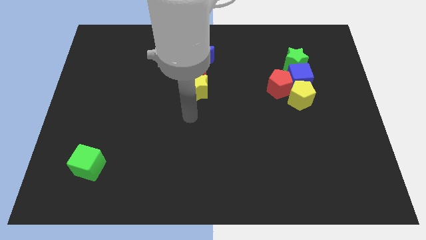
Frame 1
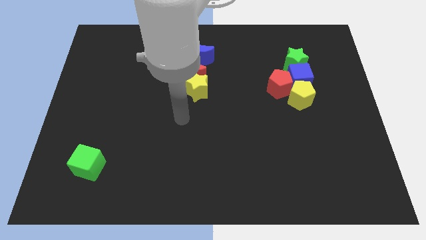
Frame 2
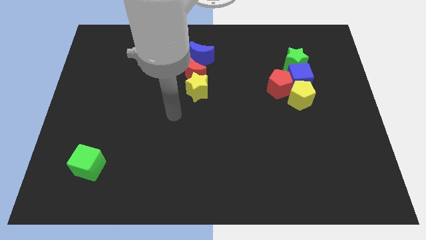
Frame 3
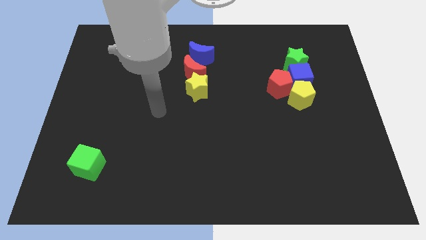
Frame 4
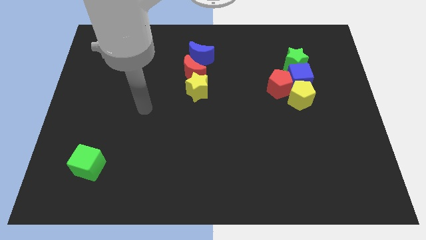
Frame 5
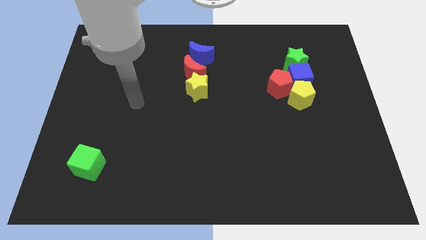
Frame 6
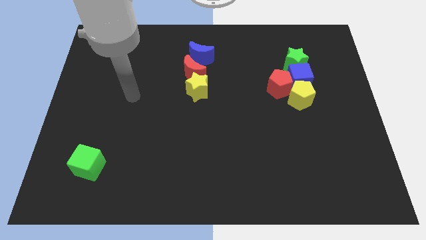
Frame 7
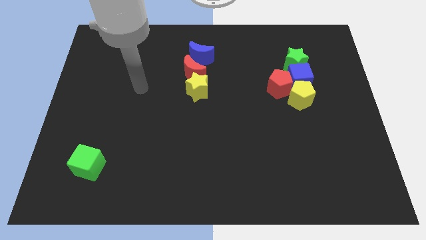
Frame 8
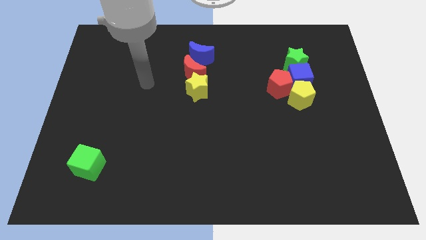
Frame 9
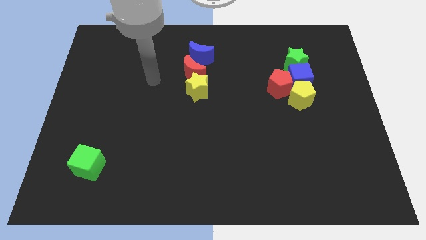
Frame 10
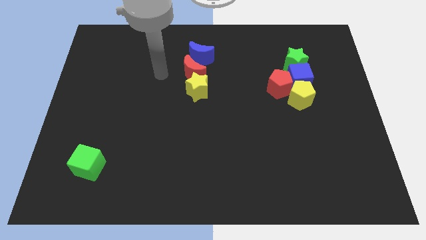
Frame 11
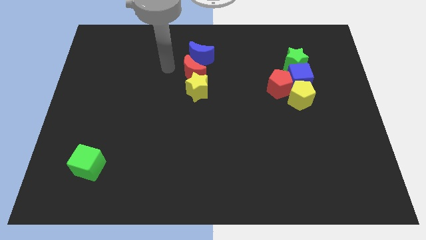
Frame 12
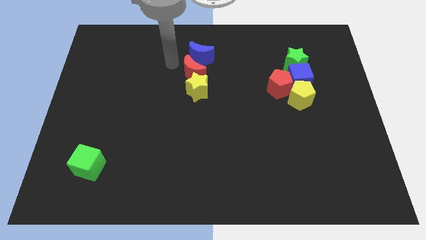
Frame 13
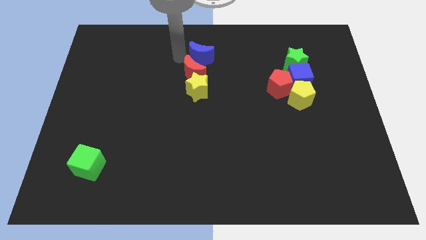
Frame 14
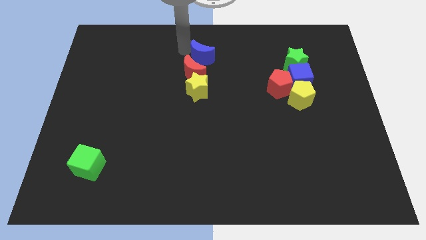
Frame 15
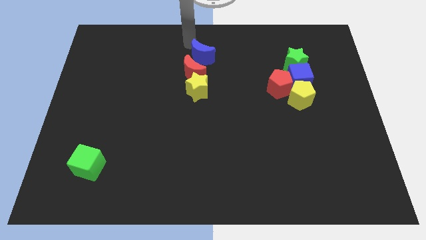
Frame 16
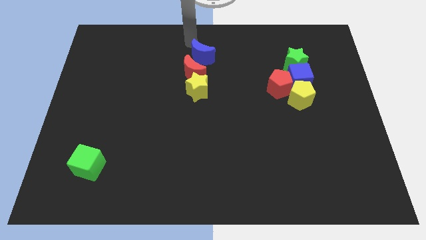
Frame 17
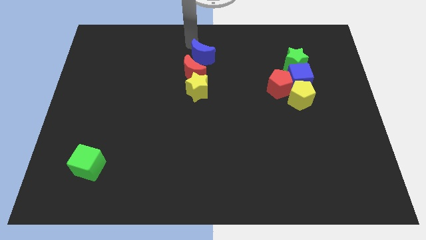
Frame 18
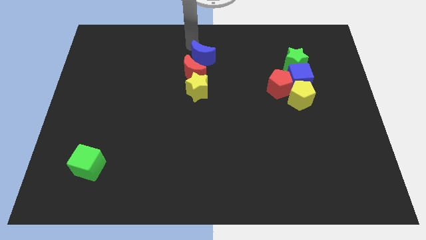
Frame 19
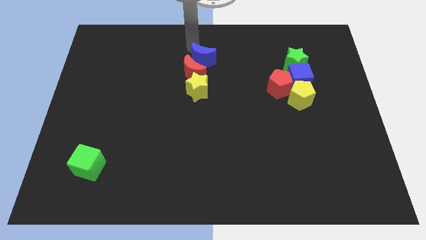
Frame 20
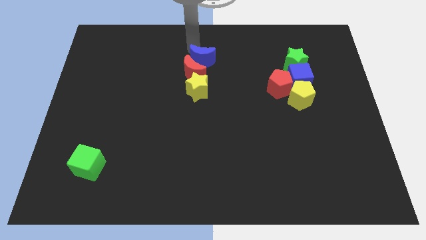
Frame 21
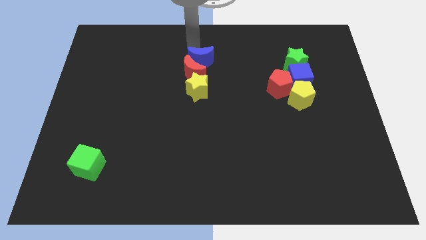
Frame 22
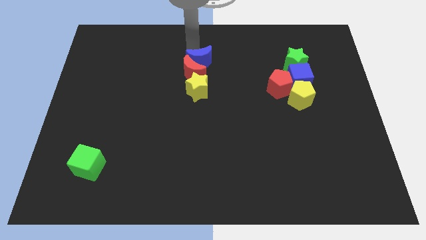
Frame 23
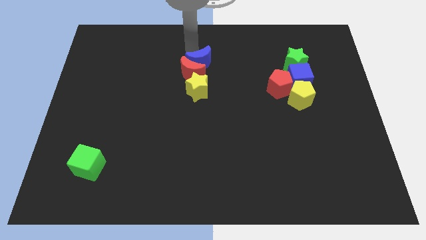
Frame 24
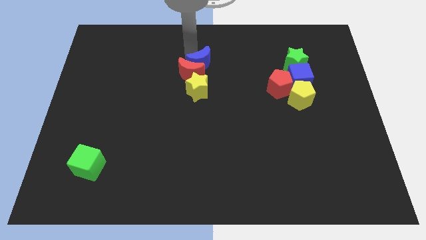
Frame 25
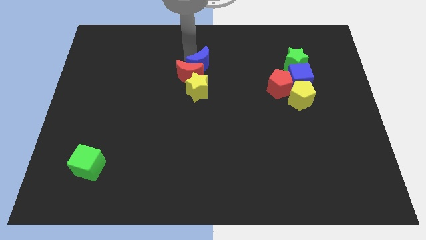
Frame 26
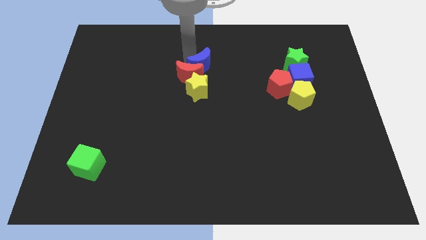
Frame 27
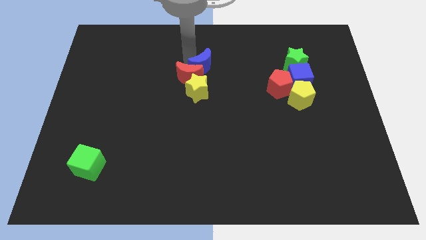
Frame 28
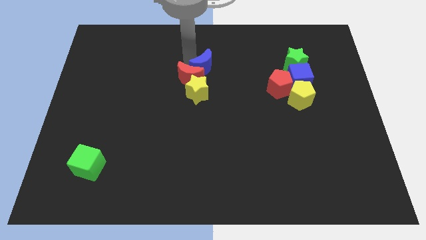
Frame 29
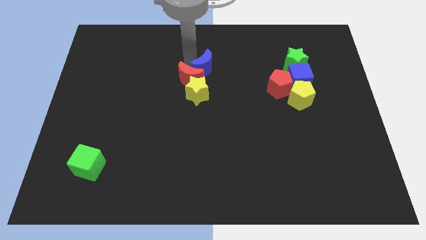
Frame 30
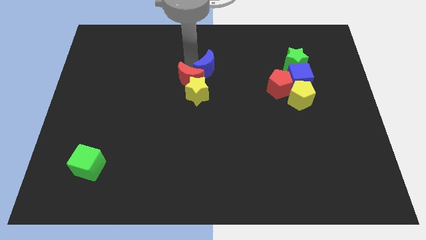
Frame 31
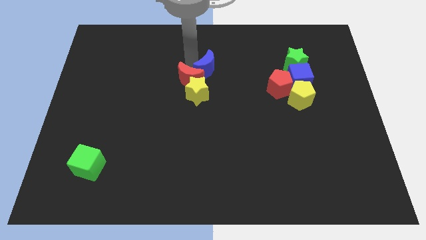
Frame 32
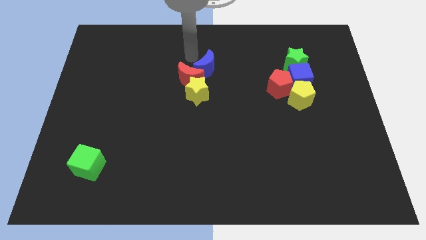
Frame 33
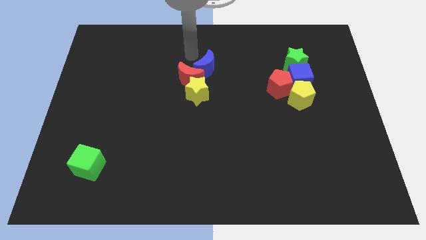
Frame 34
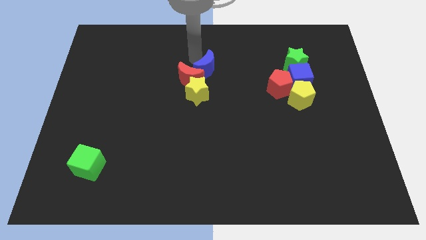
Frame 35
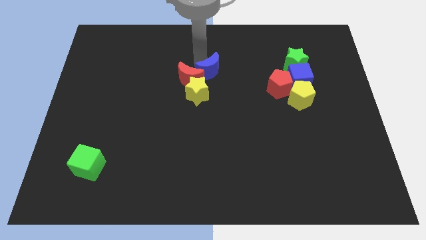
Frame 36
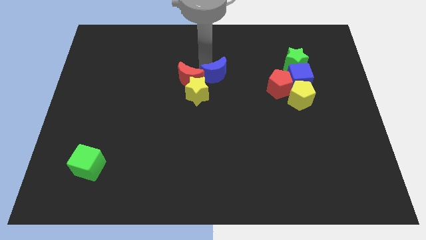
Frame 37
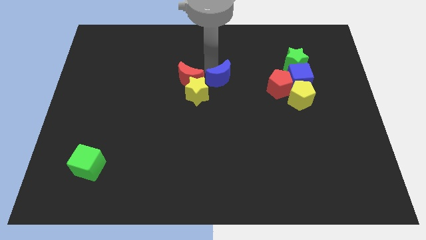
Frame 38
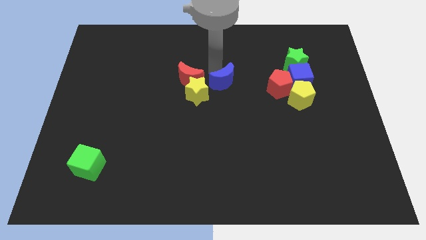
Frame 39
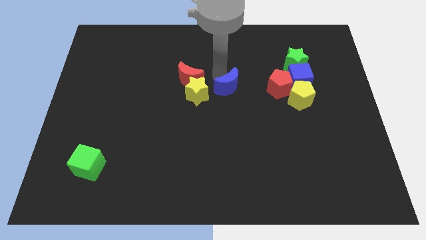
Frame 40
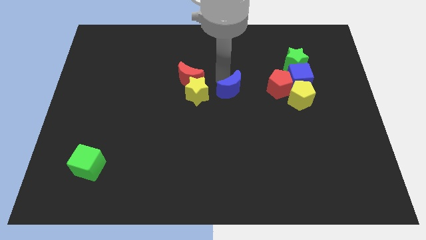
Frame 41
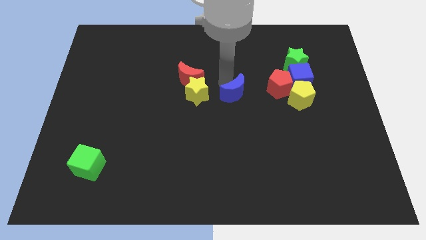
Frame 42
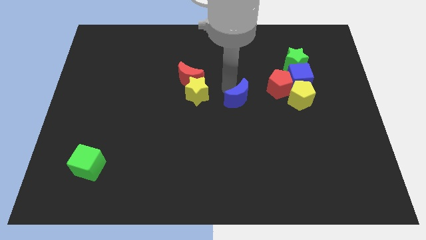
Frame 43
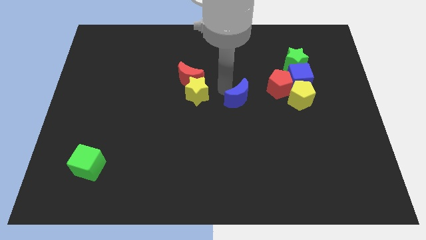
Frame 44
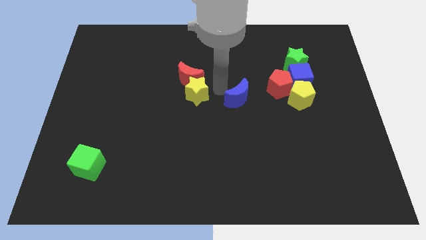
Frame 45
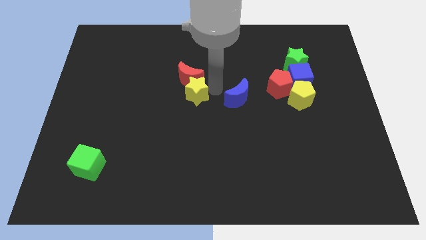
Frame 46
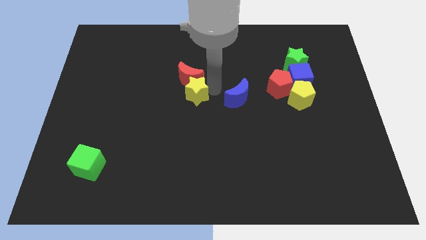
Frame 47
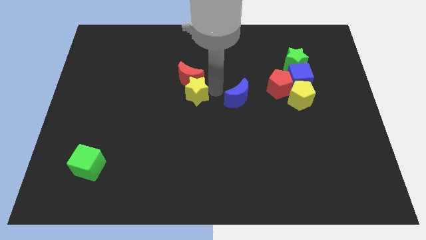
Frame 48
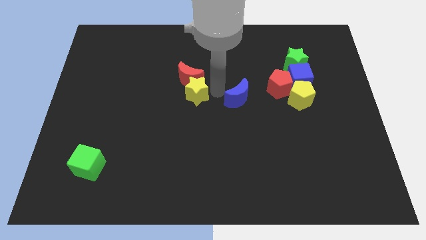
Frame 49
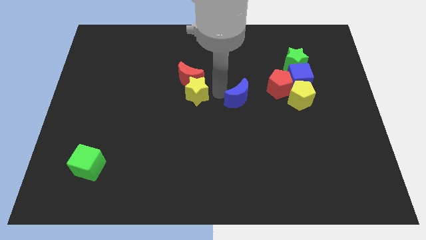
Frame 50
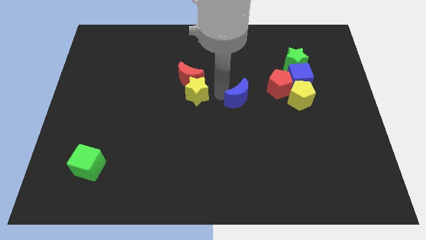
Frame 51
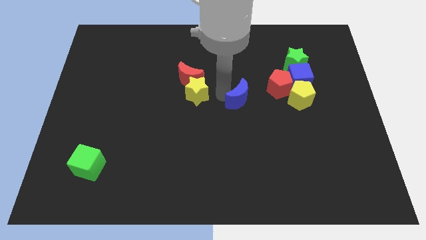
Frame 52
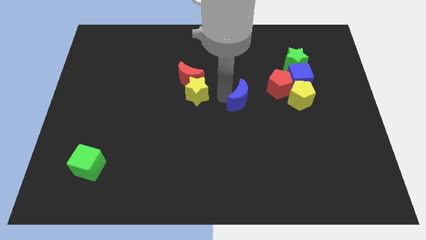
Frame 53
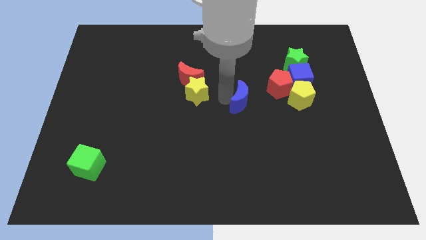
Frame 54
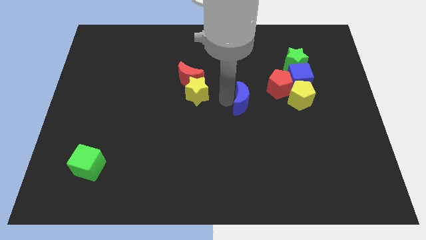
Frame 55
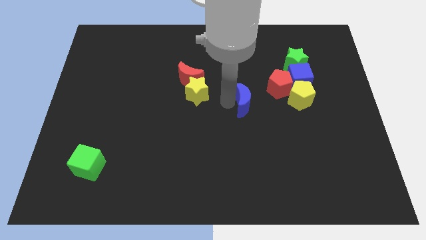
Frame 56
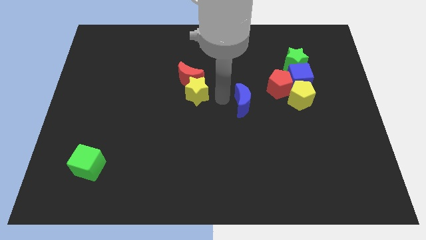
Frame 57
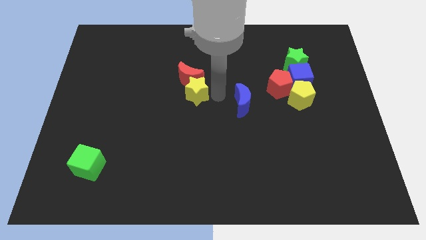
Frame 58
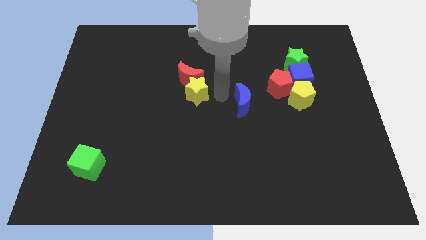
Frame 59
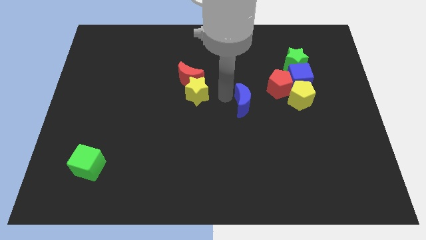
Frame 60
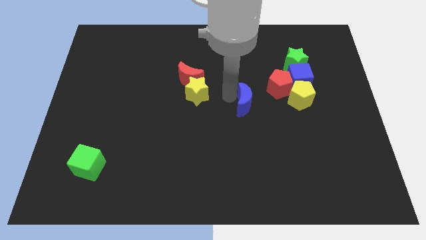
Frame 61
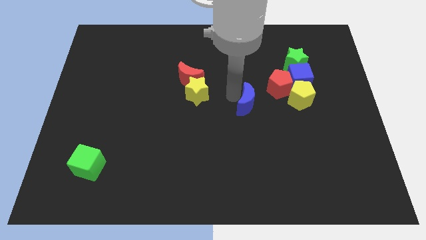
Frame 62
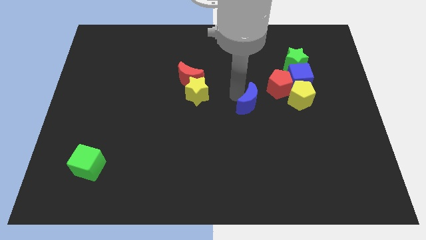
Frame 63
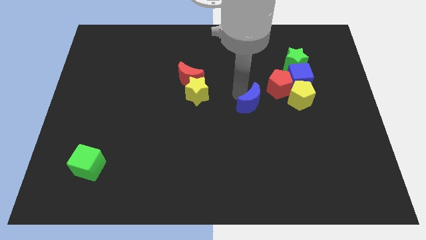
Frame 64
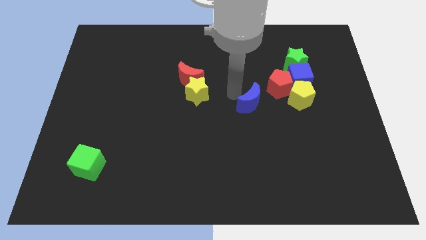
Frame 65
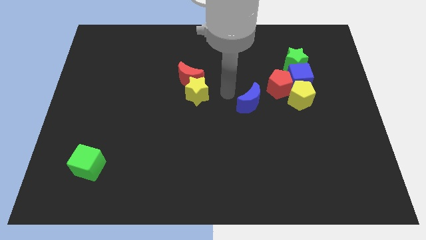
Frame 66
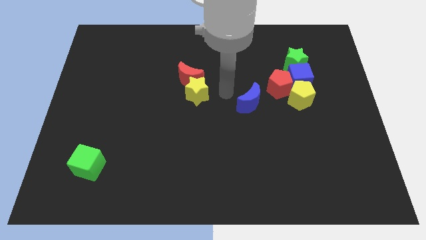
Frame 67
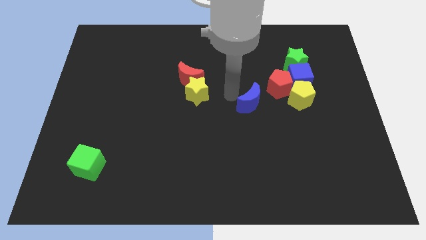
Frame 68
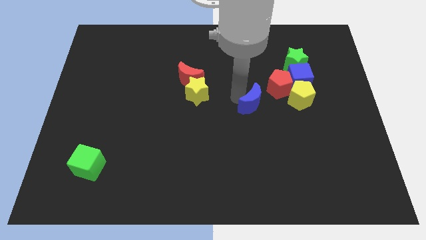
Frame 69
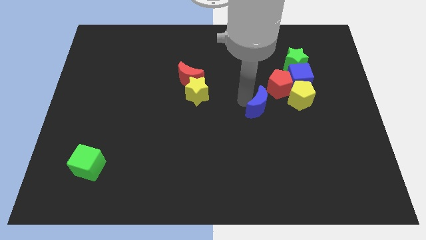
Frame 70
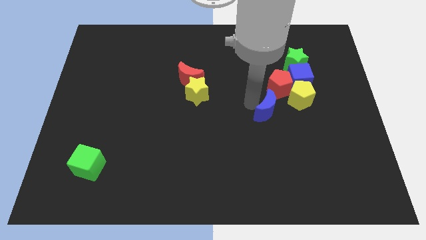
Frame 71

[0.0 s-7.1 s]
slide the blue moon to the bottom left side of the yellow pentagon

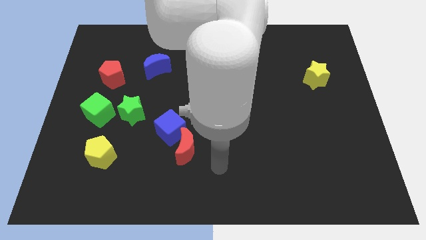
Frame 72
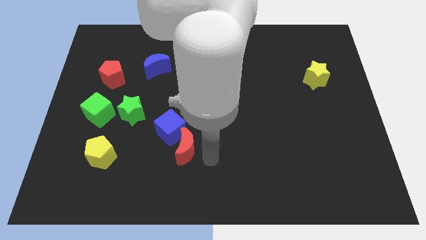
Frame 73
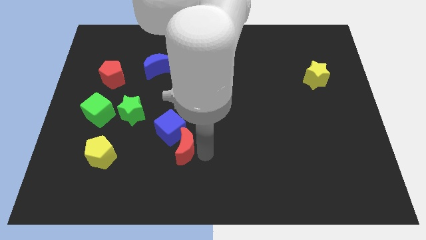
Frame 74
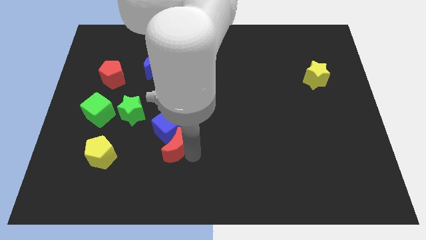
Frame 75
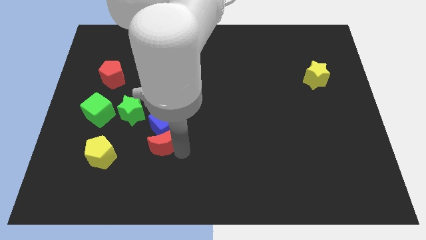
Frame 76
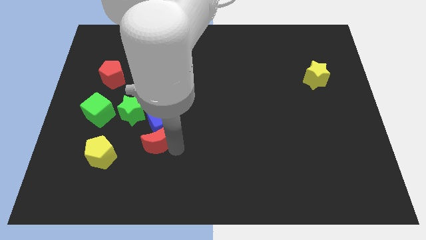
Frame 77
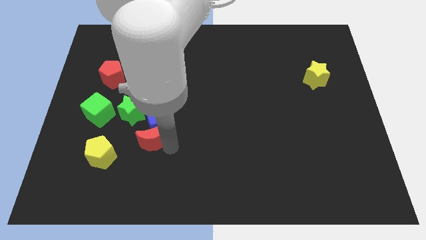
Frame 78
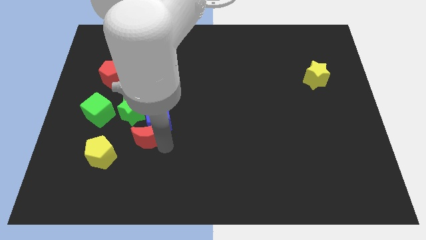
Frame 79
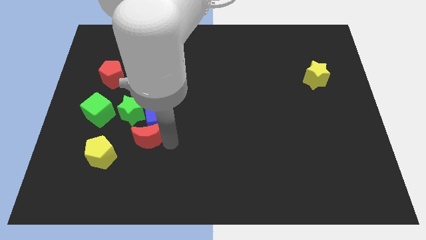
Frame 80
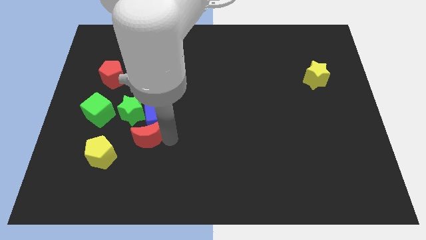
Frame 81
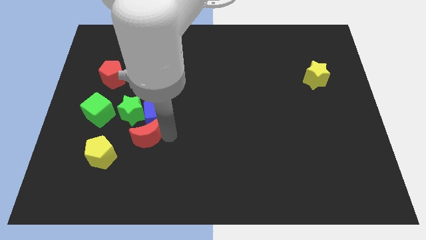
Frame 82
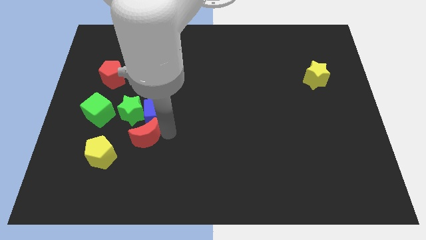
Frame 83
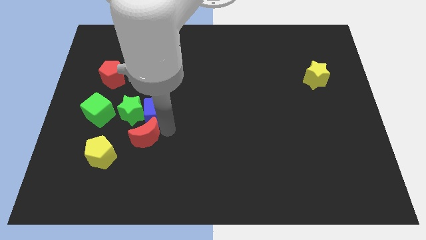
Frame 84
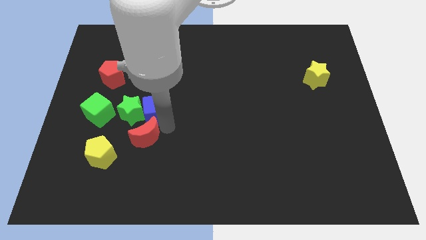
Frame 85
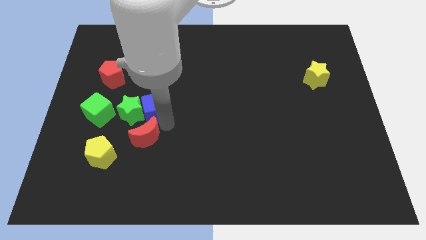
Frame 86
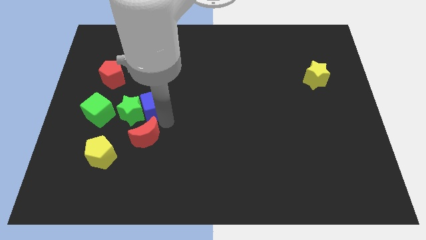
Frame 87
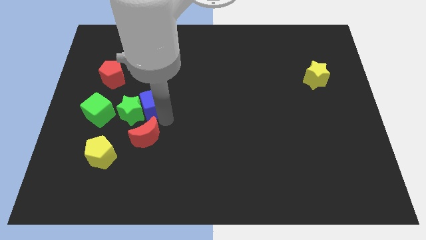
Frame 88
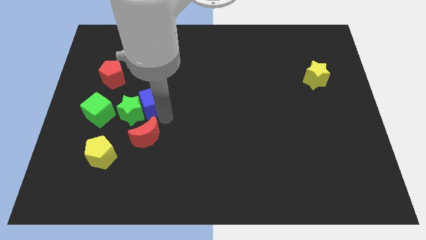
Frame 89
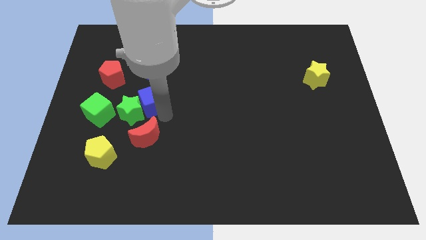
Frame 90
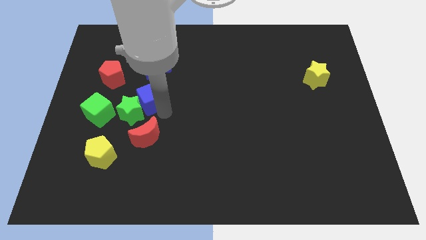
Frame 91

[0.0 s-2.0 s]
put the blue cube to the top of the green star
